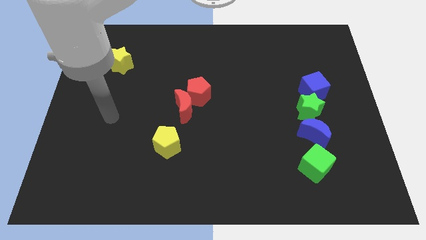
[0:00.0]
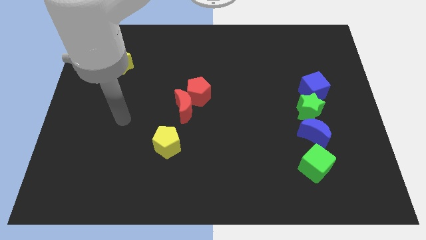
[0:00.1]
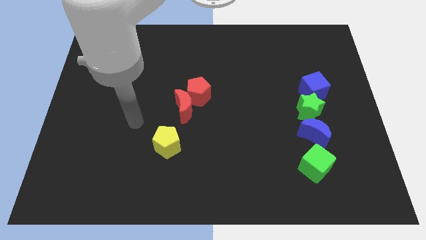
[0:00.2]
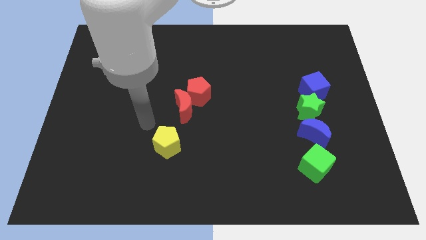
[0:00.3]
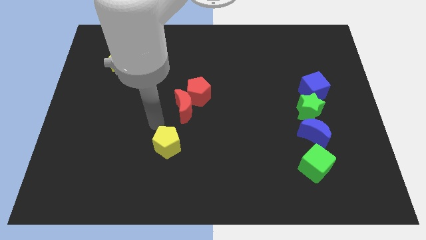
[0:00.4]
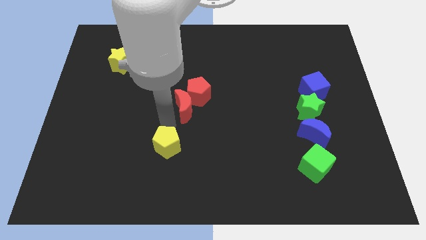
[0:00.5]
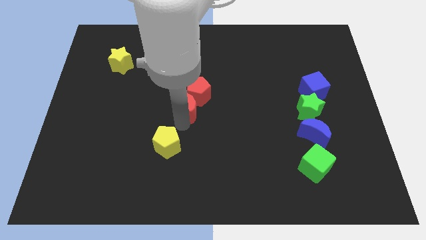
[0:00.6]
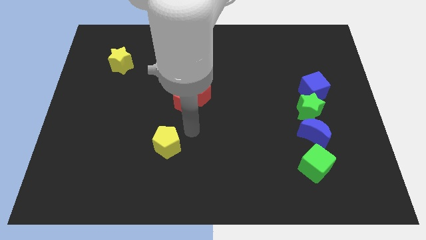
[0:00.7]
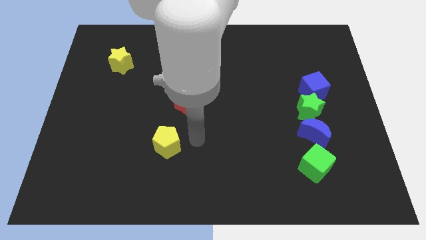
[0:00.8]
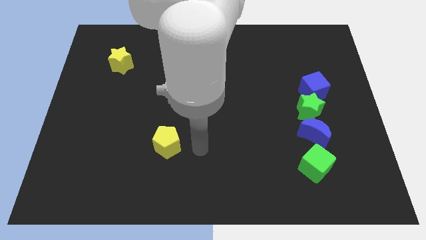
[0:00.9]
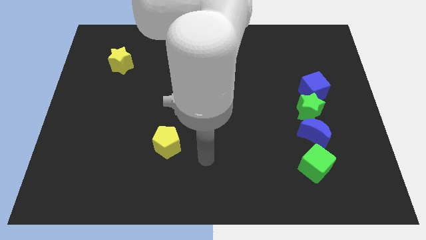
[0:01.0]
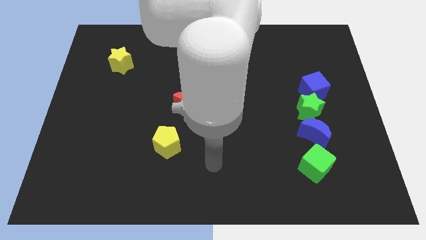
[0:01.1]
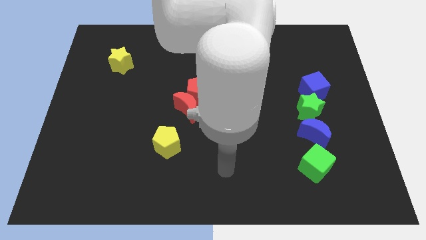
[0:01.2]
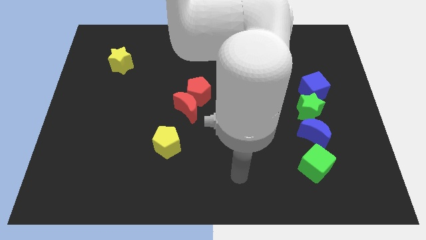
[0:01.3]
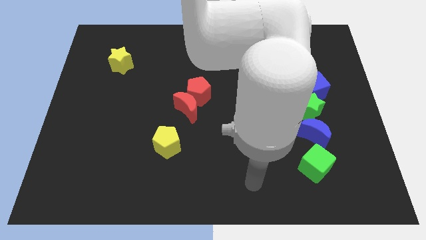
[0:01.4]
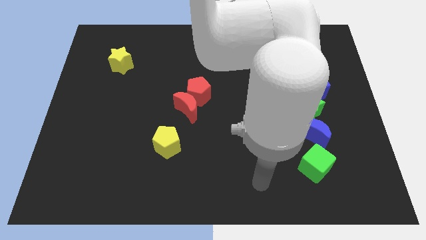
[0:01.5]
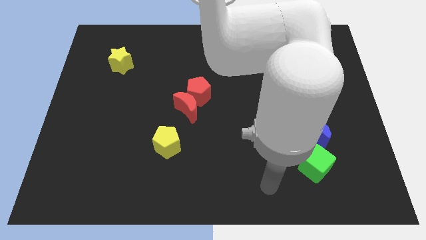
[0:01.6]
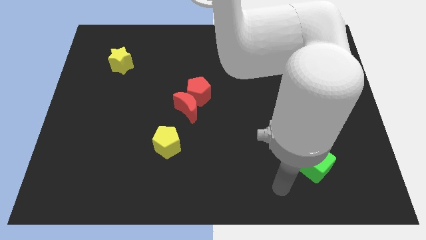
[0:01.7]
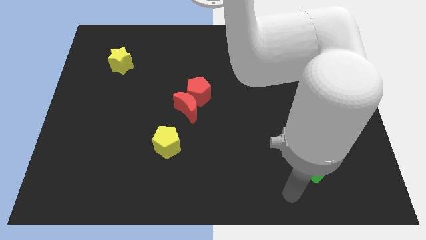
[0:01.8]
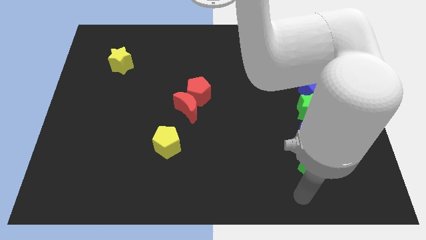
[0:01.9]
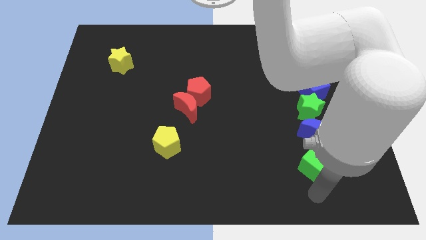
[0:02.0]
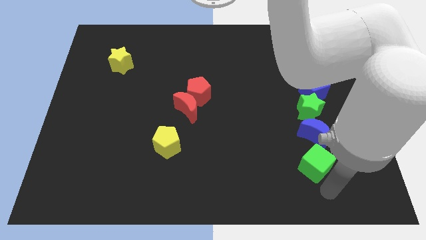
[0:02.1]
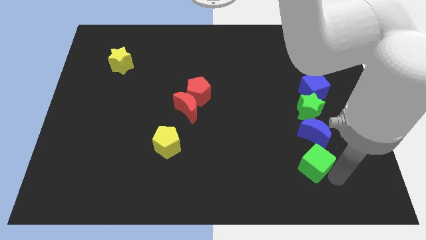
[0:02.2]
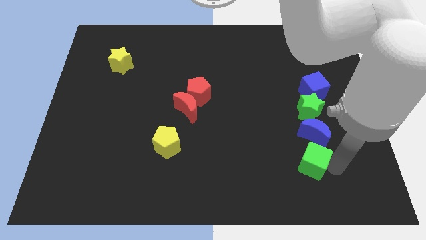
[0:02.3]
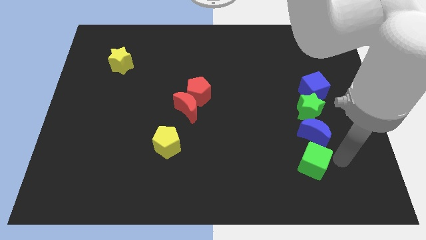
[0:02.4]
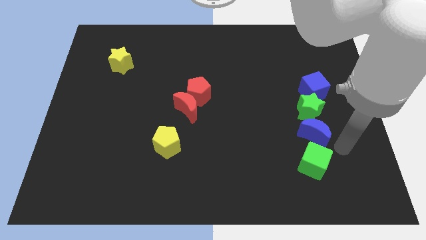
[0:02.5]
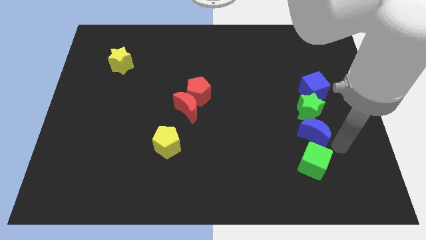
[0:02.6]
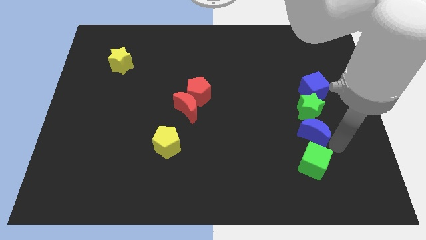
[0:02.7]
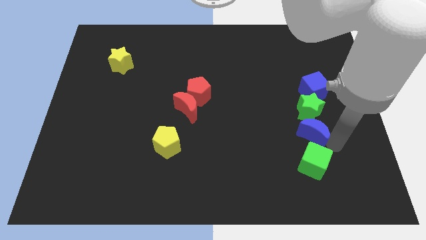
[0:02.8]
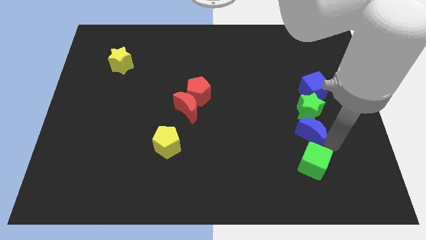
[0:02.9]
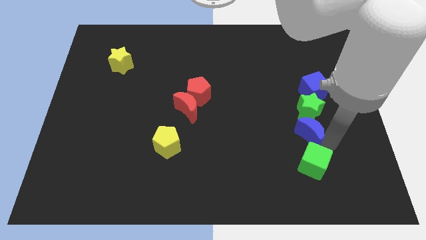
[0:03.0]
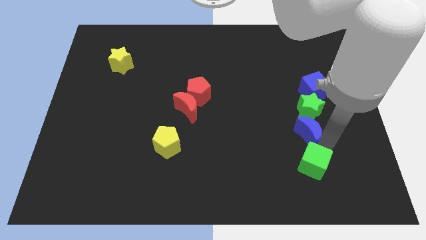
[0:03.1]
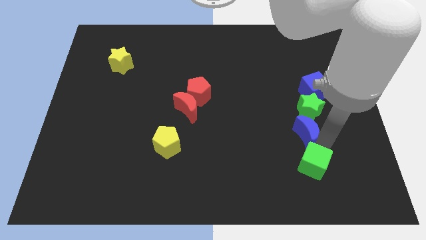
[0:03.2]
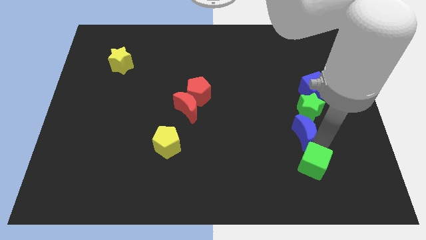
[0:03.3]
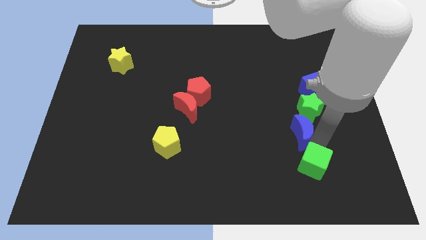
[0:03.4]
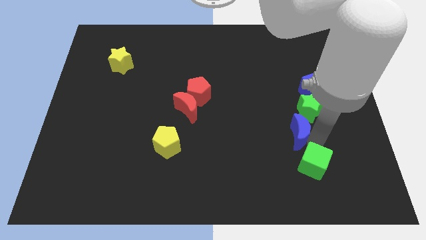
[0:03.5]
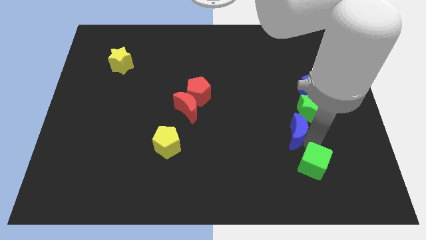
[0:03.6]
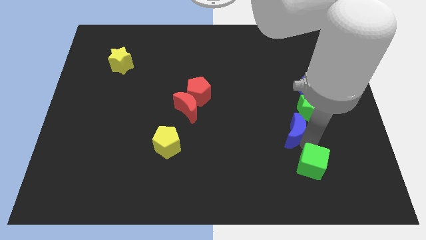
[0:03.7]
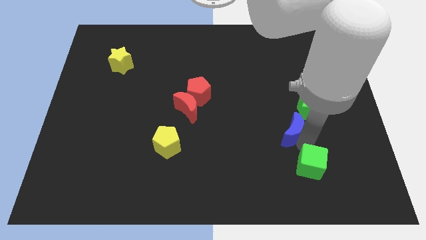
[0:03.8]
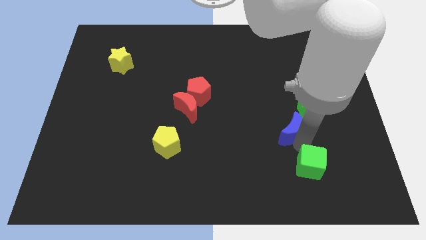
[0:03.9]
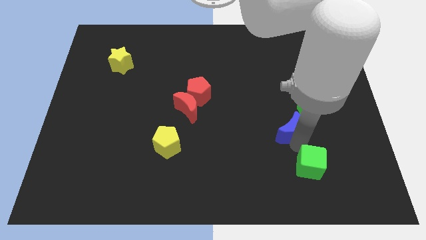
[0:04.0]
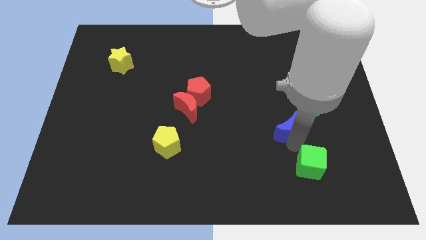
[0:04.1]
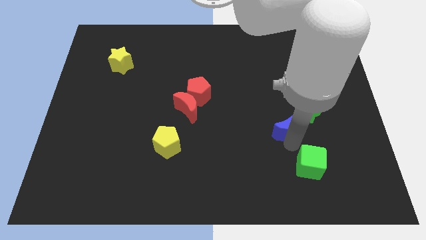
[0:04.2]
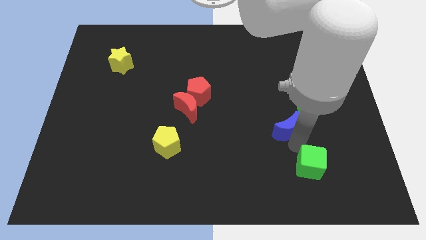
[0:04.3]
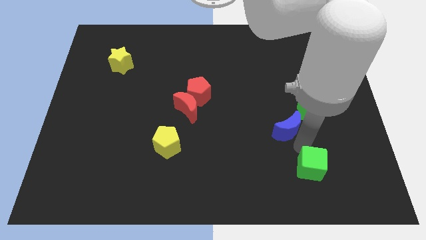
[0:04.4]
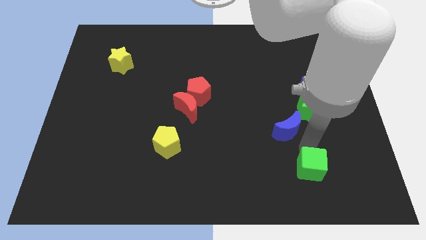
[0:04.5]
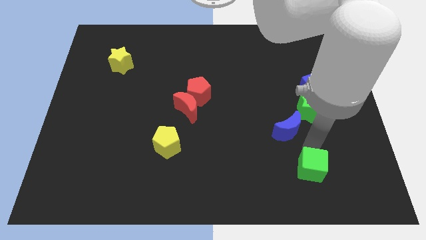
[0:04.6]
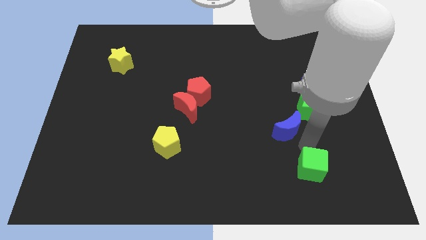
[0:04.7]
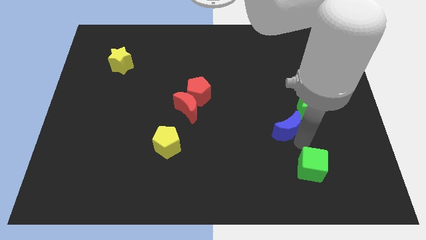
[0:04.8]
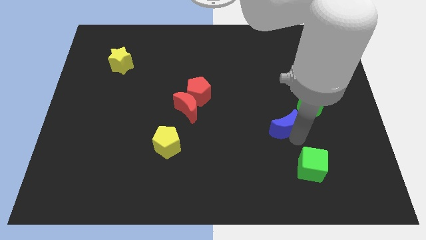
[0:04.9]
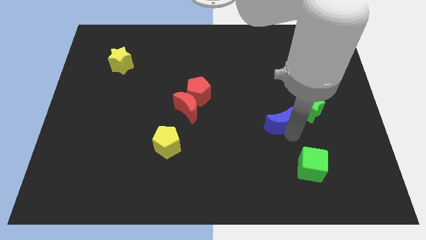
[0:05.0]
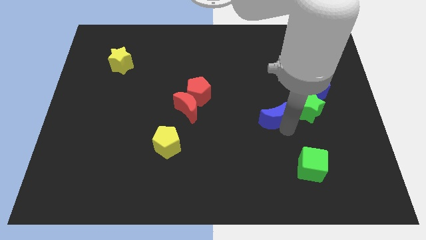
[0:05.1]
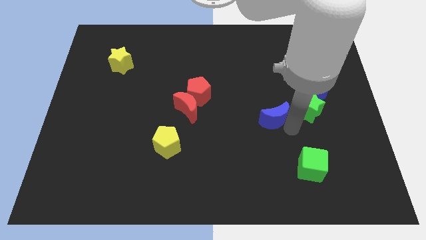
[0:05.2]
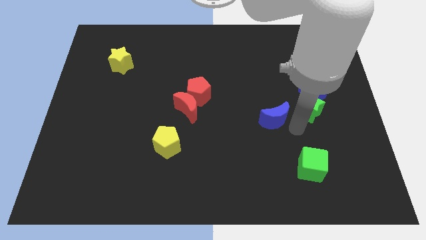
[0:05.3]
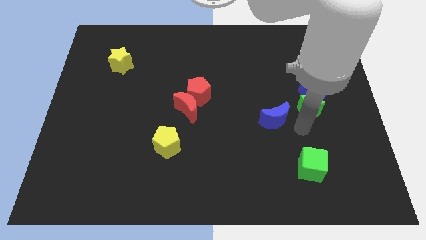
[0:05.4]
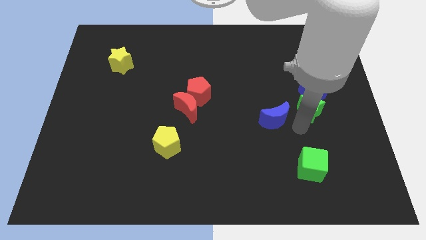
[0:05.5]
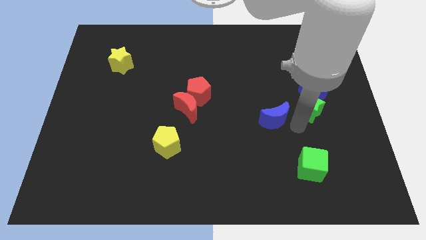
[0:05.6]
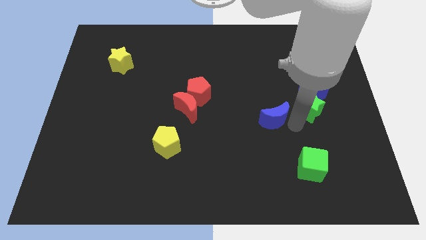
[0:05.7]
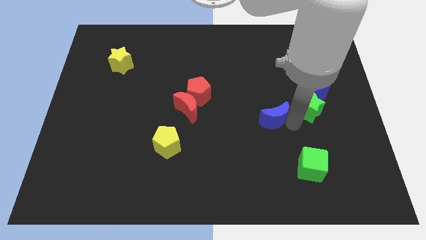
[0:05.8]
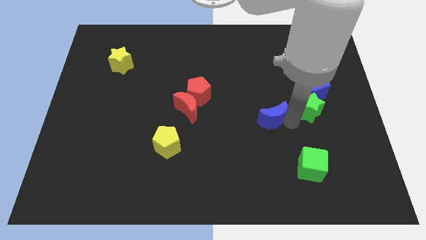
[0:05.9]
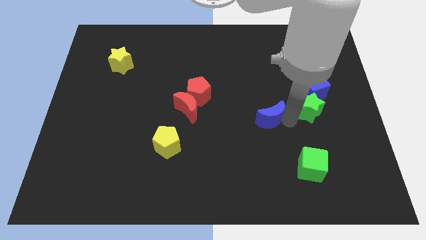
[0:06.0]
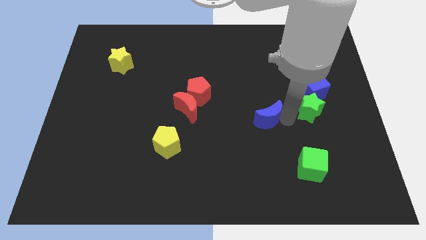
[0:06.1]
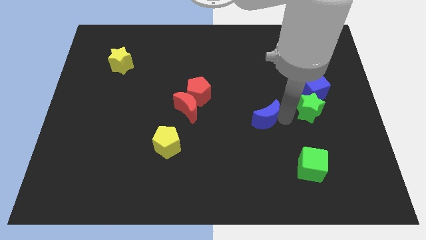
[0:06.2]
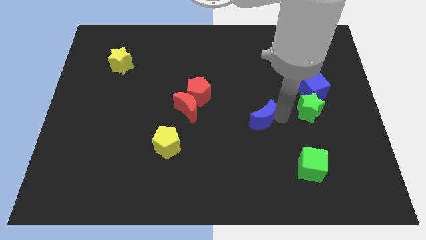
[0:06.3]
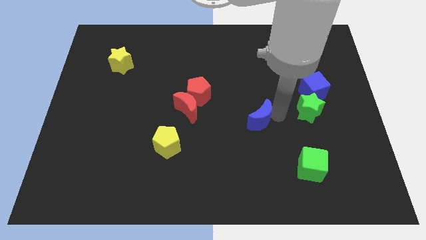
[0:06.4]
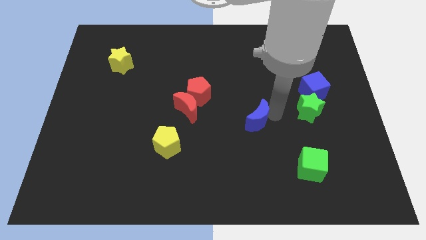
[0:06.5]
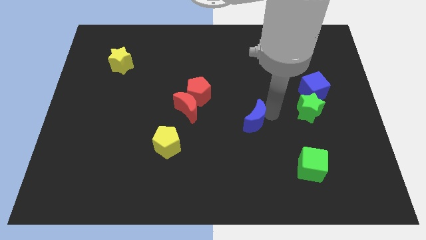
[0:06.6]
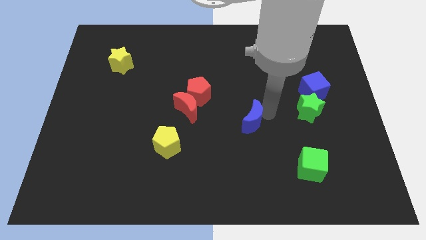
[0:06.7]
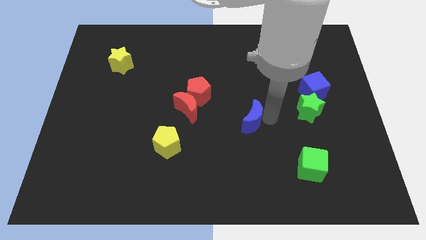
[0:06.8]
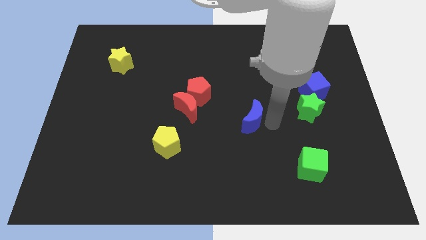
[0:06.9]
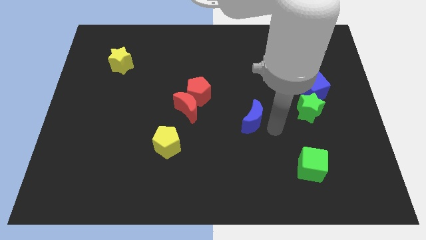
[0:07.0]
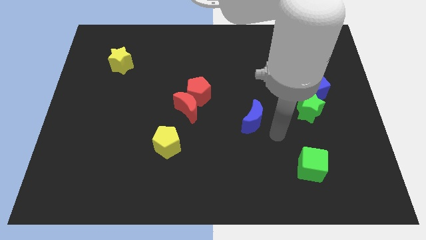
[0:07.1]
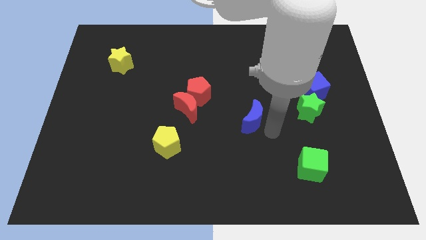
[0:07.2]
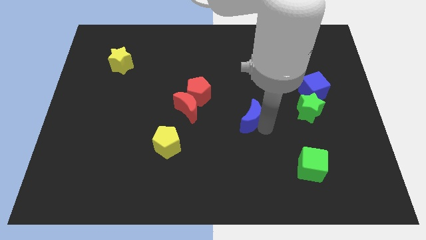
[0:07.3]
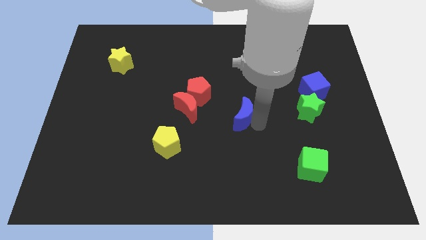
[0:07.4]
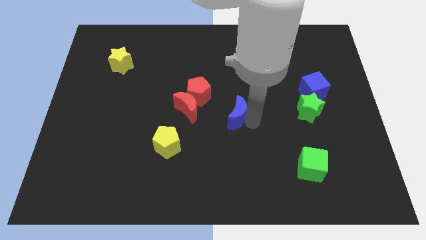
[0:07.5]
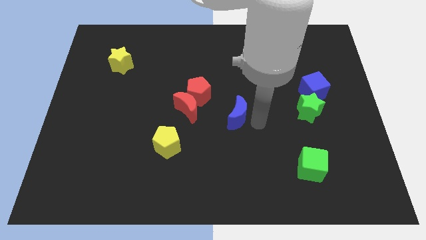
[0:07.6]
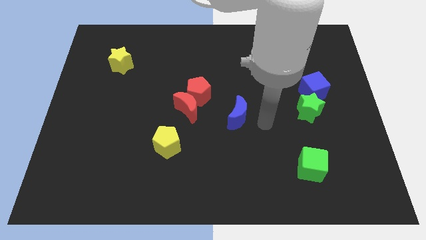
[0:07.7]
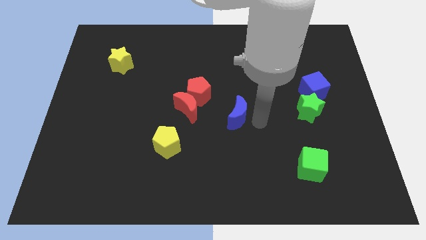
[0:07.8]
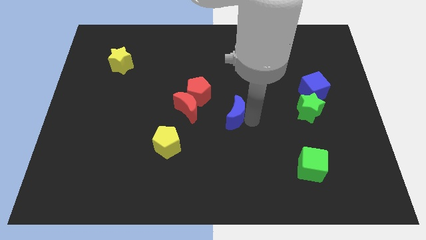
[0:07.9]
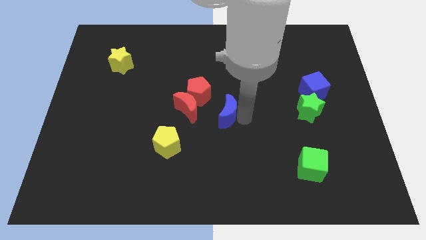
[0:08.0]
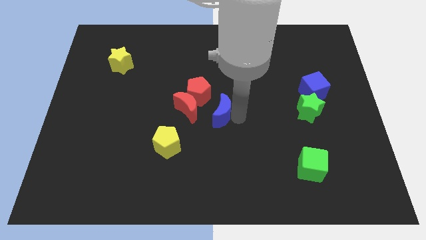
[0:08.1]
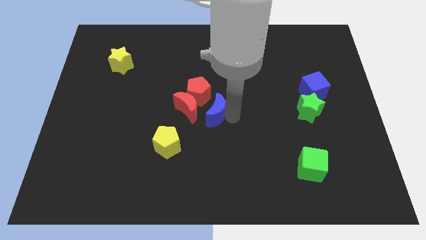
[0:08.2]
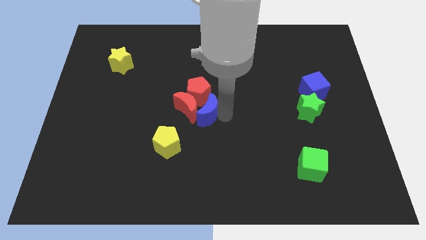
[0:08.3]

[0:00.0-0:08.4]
put the blue moon close to the red moon
